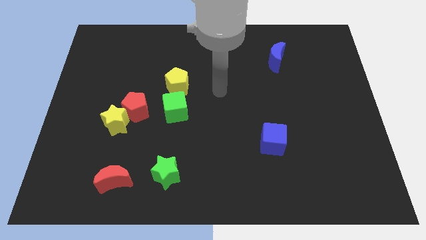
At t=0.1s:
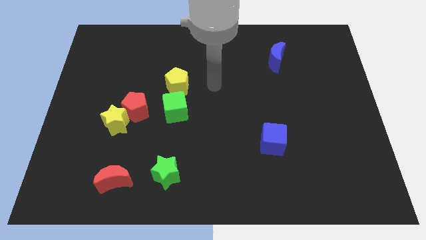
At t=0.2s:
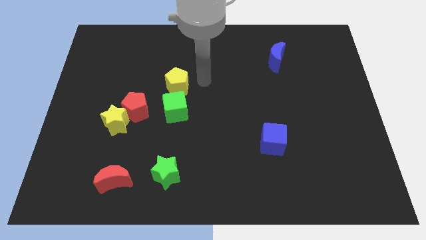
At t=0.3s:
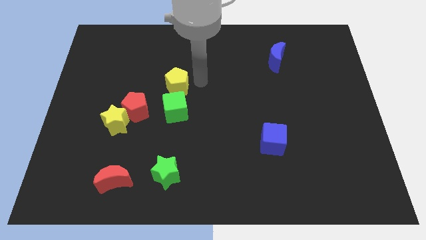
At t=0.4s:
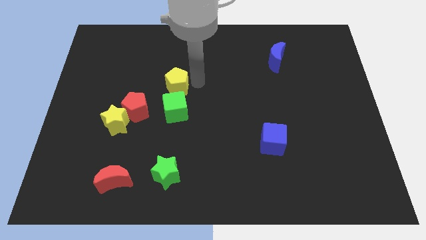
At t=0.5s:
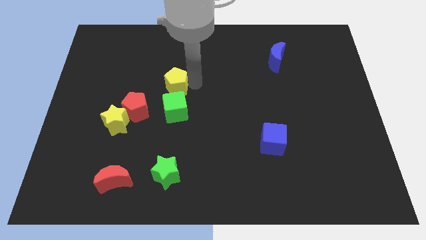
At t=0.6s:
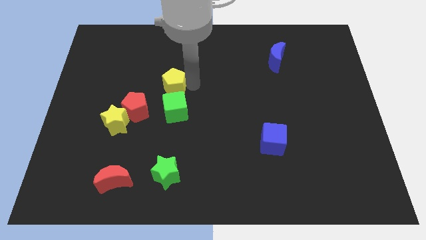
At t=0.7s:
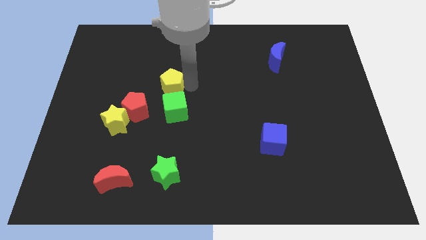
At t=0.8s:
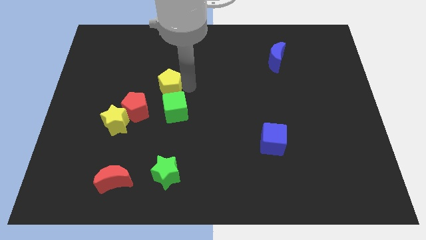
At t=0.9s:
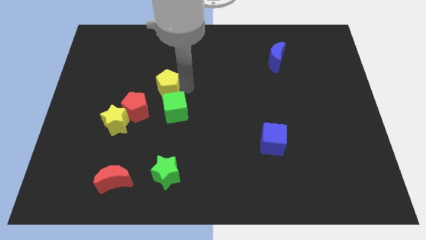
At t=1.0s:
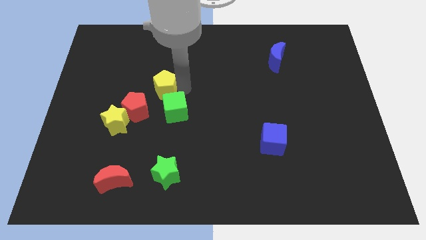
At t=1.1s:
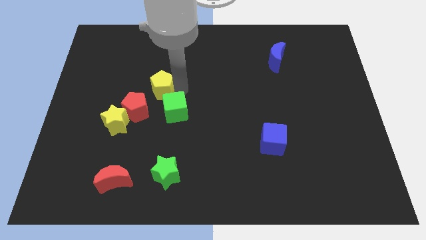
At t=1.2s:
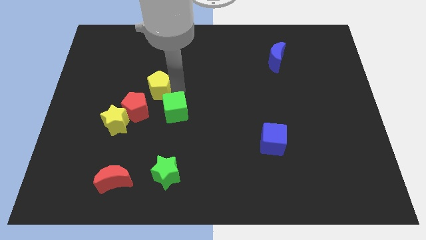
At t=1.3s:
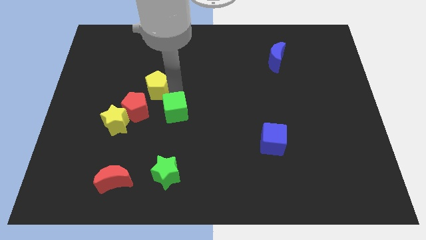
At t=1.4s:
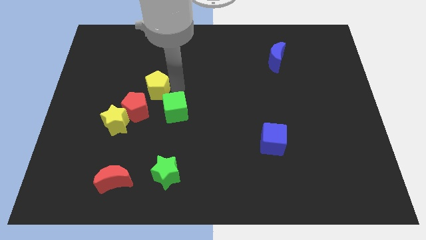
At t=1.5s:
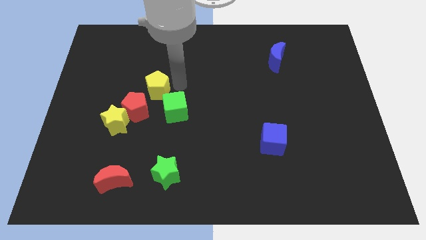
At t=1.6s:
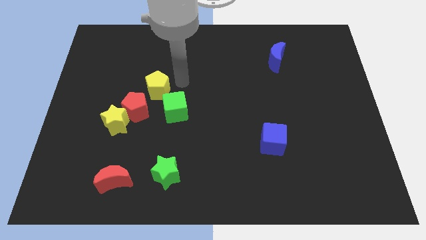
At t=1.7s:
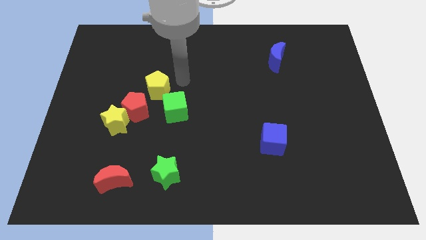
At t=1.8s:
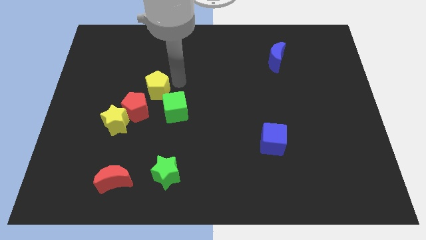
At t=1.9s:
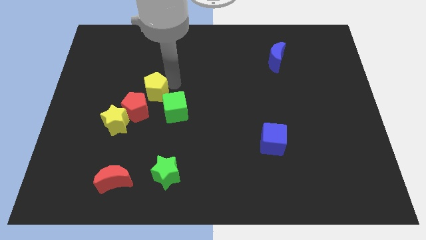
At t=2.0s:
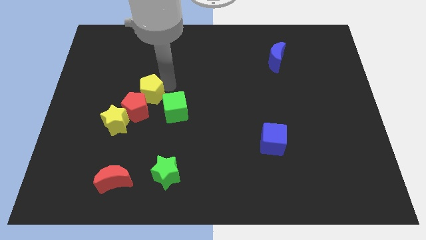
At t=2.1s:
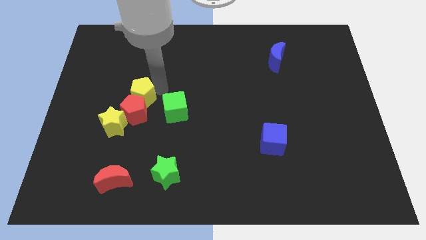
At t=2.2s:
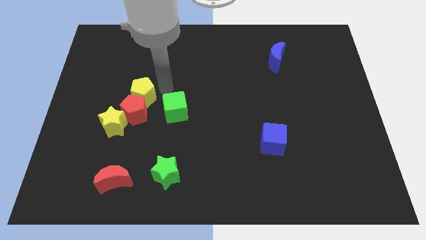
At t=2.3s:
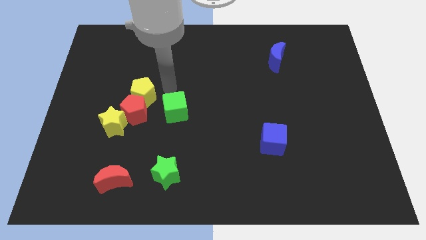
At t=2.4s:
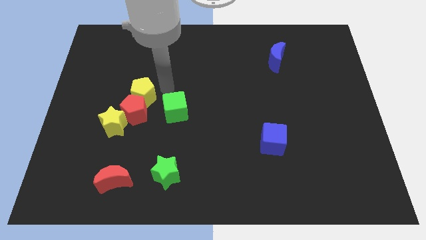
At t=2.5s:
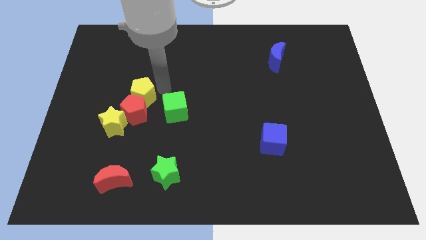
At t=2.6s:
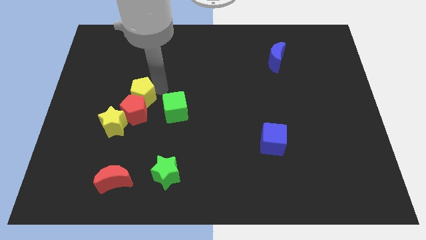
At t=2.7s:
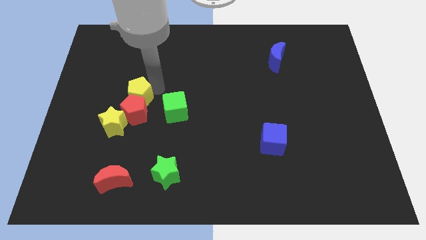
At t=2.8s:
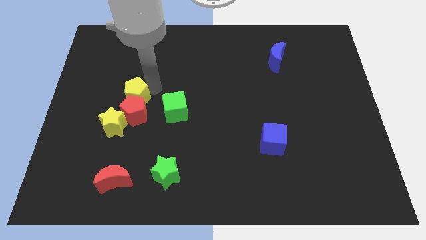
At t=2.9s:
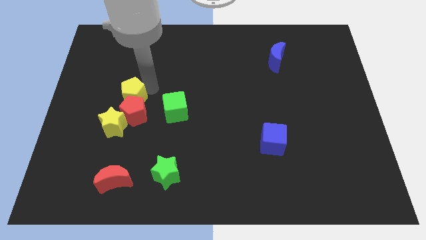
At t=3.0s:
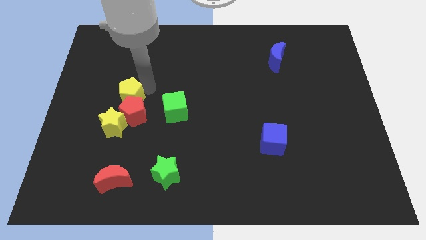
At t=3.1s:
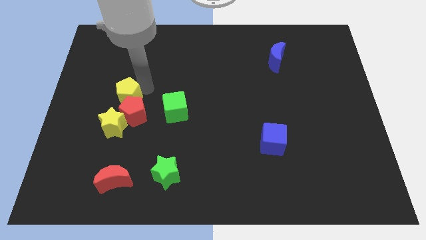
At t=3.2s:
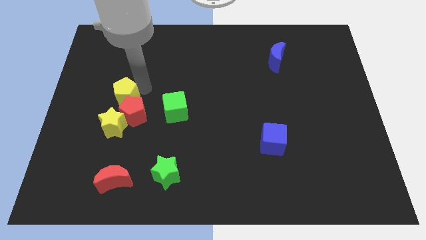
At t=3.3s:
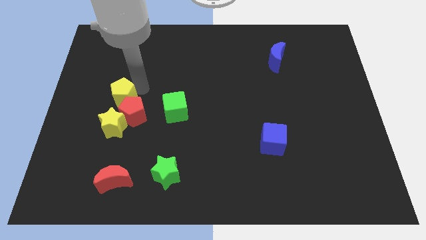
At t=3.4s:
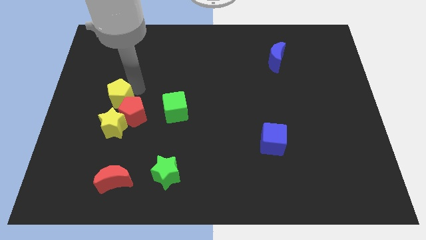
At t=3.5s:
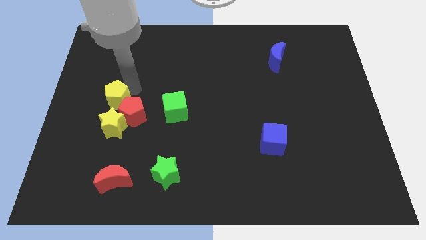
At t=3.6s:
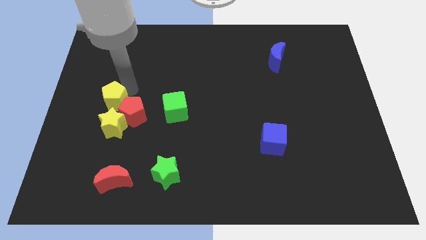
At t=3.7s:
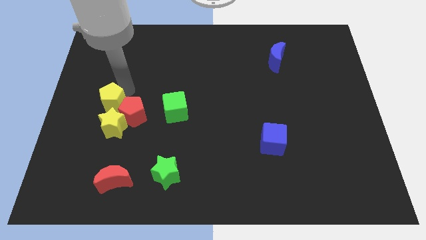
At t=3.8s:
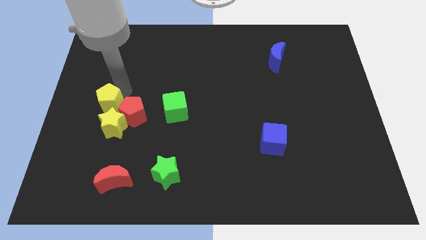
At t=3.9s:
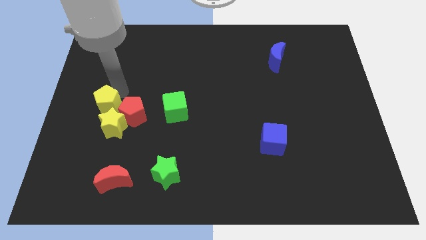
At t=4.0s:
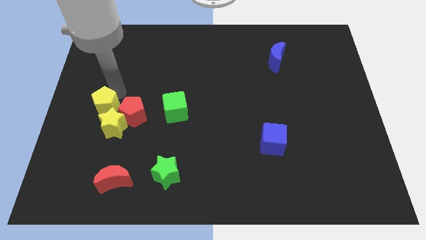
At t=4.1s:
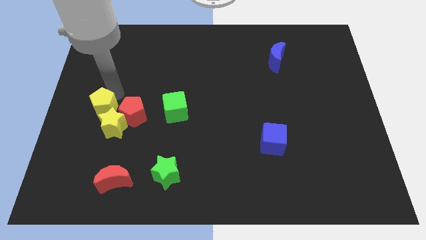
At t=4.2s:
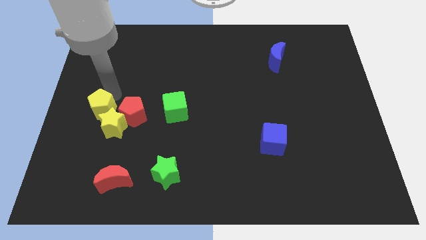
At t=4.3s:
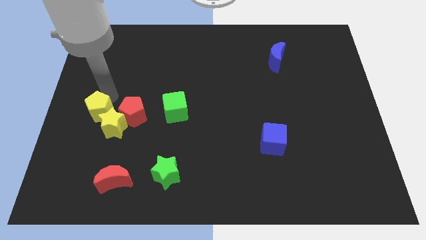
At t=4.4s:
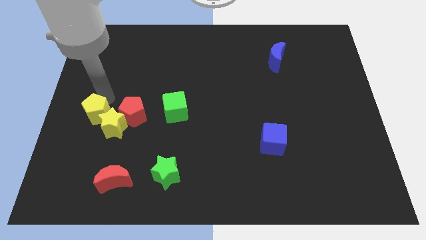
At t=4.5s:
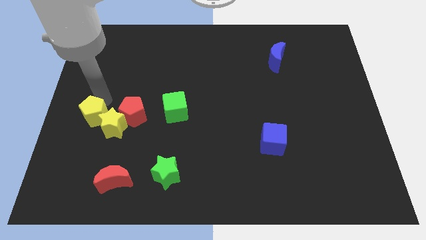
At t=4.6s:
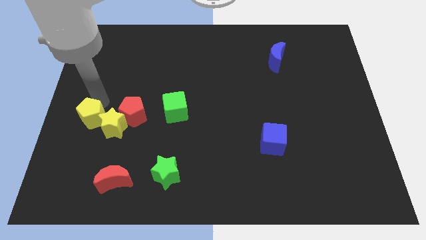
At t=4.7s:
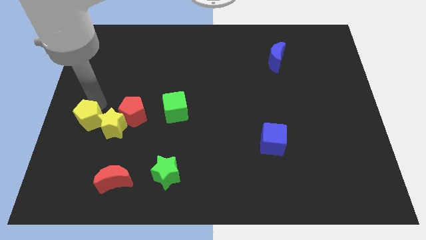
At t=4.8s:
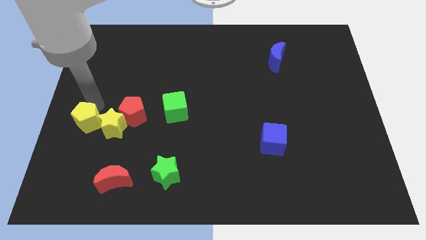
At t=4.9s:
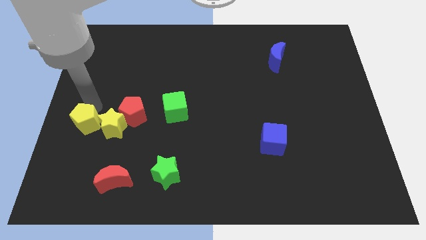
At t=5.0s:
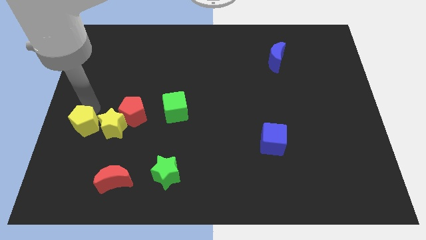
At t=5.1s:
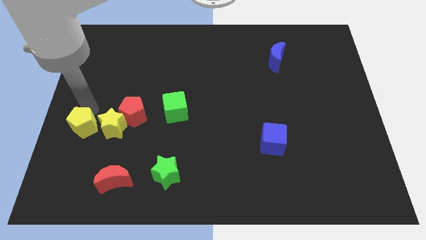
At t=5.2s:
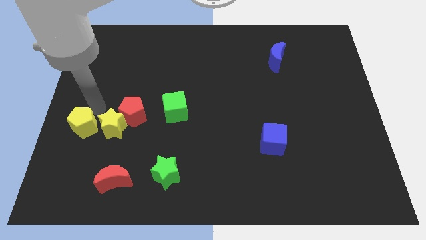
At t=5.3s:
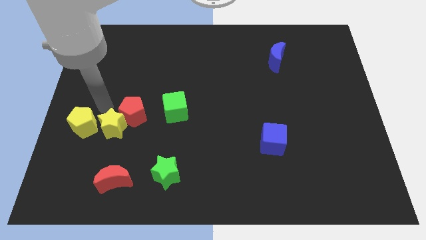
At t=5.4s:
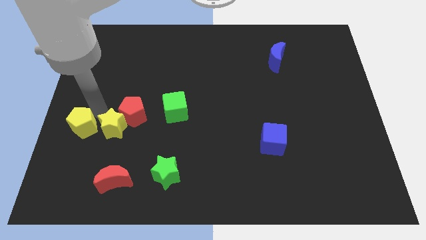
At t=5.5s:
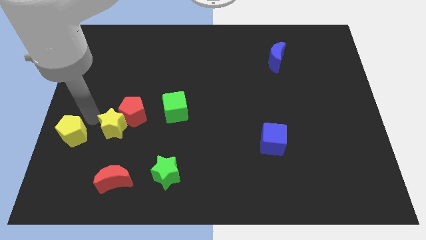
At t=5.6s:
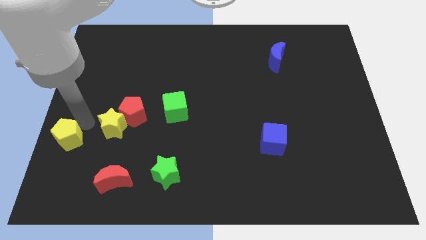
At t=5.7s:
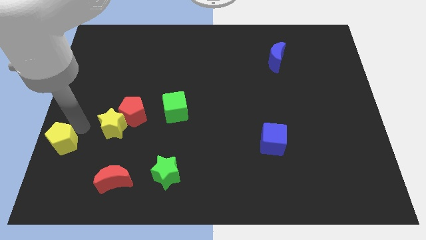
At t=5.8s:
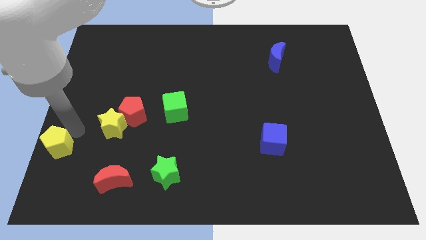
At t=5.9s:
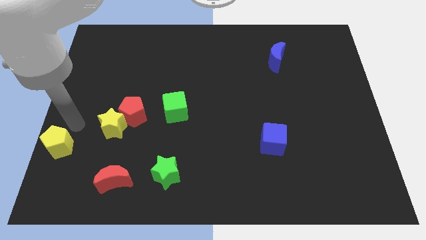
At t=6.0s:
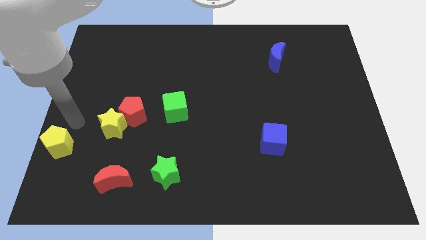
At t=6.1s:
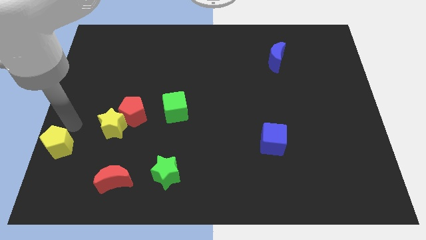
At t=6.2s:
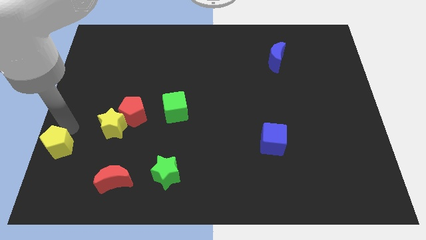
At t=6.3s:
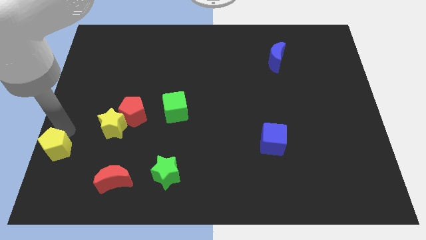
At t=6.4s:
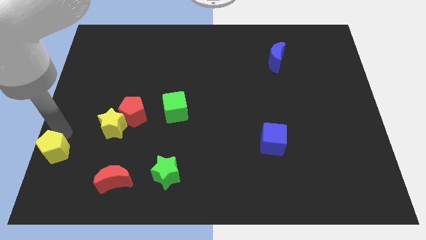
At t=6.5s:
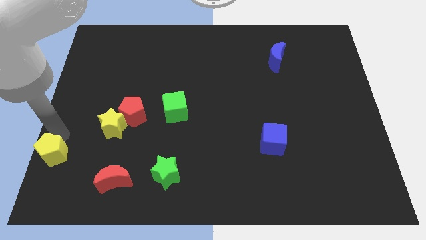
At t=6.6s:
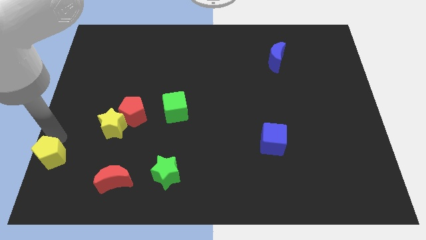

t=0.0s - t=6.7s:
move the yellow pentagon to the bottom left of the board

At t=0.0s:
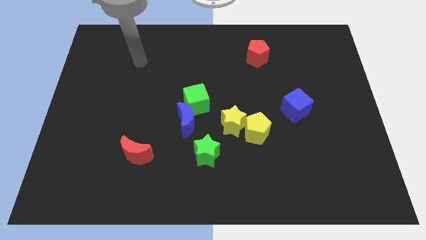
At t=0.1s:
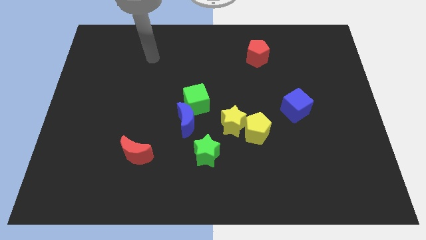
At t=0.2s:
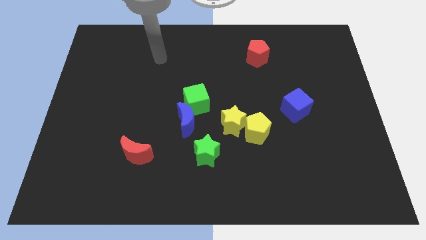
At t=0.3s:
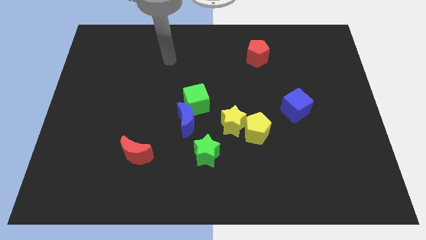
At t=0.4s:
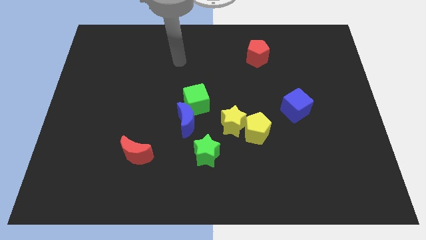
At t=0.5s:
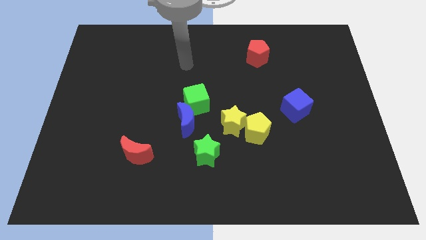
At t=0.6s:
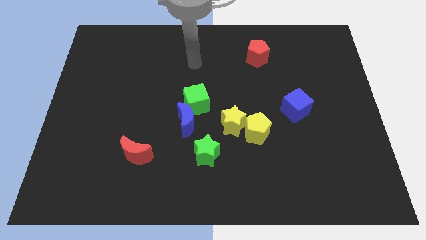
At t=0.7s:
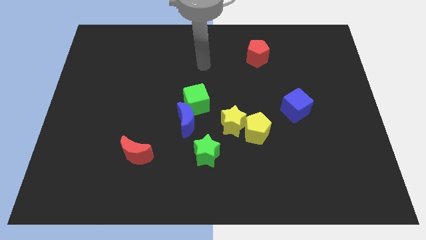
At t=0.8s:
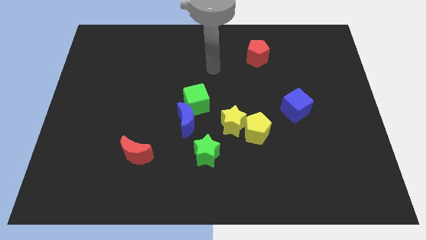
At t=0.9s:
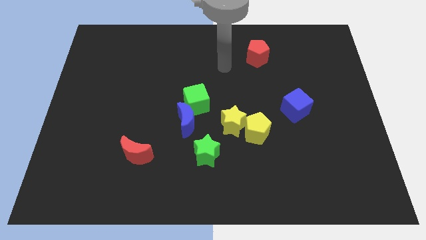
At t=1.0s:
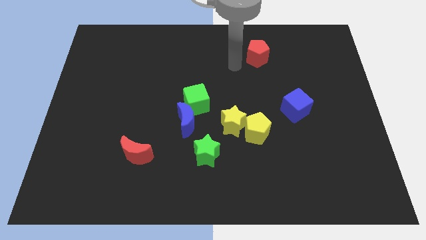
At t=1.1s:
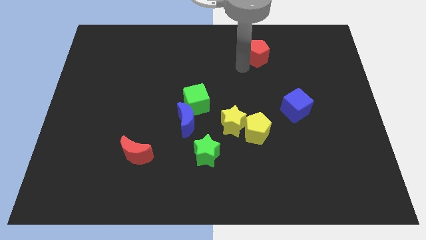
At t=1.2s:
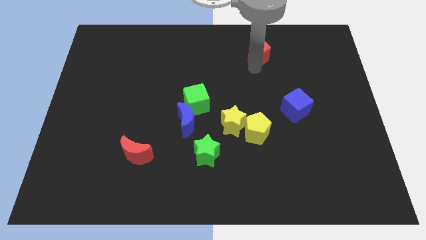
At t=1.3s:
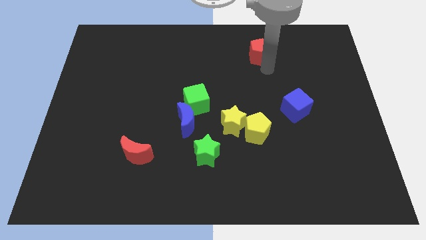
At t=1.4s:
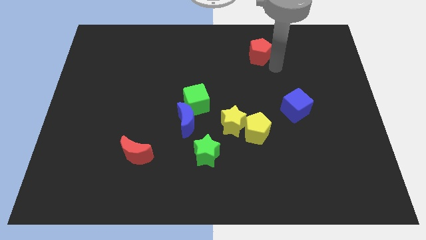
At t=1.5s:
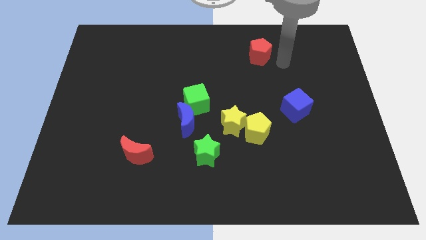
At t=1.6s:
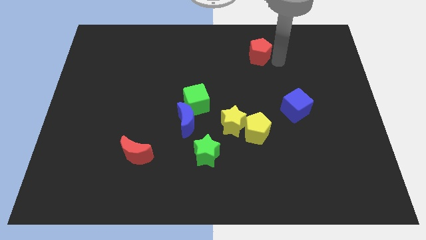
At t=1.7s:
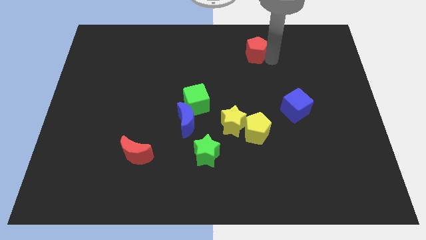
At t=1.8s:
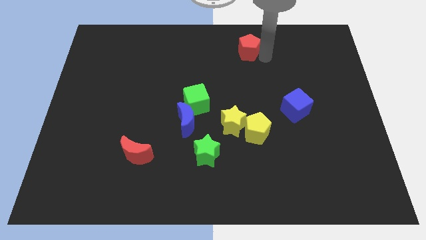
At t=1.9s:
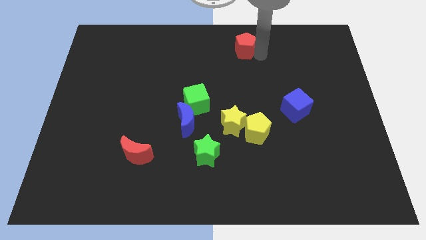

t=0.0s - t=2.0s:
put the red pentagon to the towards your base
